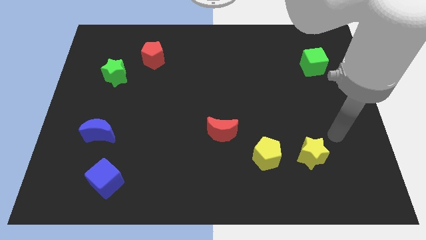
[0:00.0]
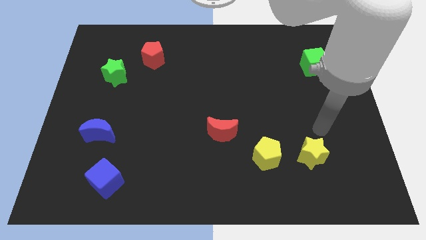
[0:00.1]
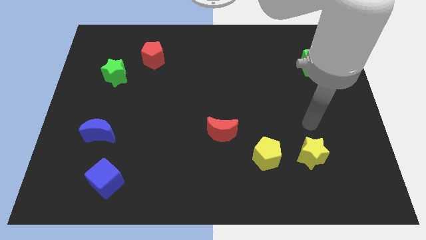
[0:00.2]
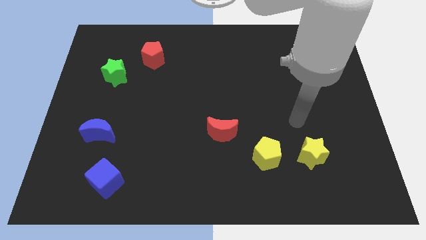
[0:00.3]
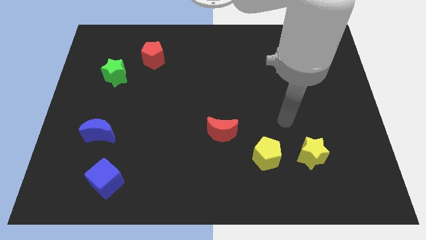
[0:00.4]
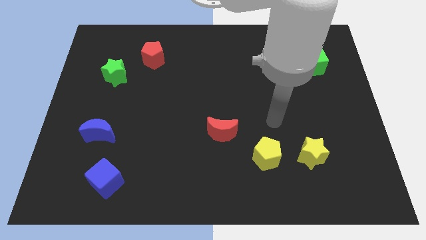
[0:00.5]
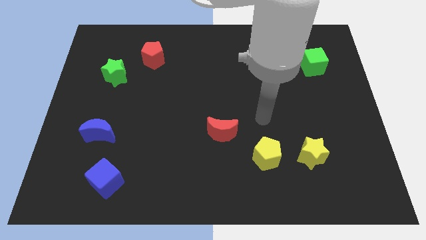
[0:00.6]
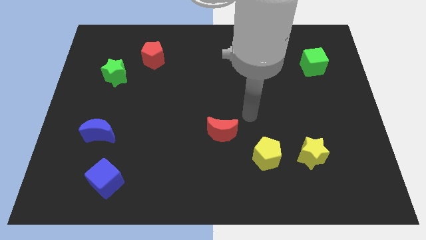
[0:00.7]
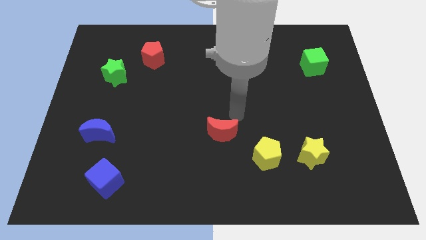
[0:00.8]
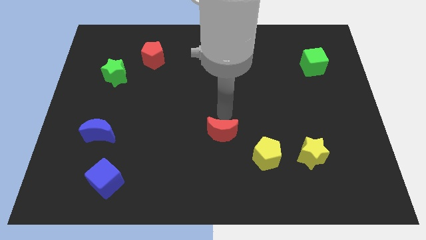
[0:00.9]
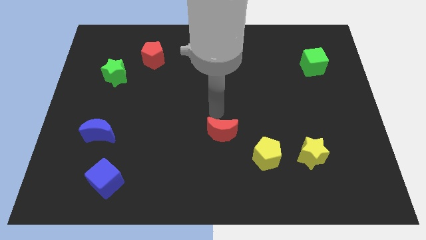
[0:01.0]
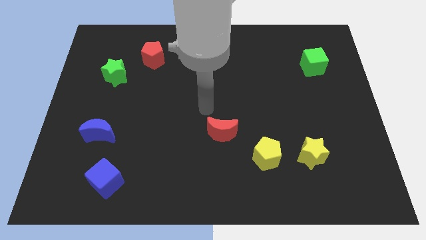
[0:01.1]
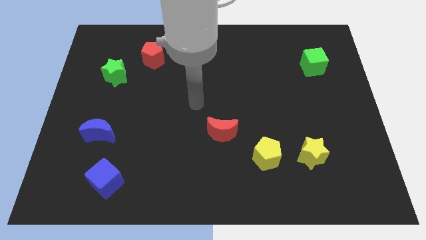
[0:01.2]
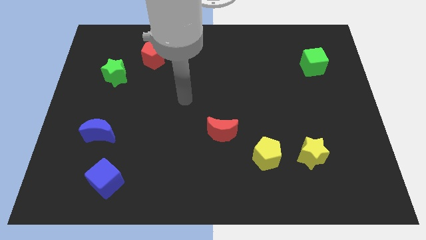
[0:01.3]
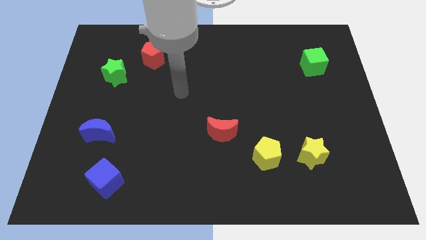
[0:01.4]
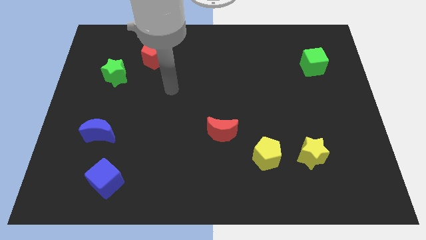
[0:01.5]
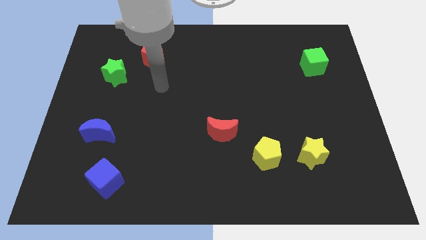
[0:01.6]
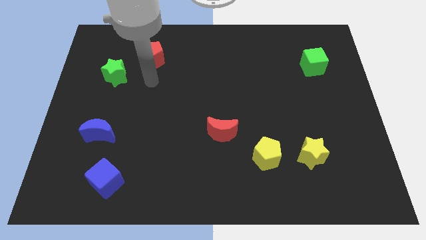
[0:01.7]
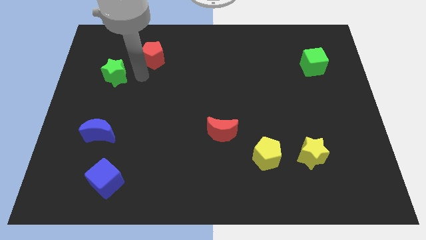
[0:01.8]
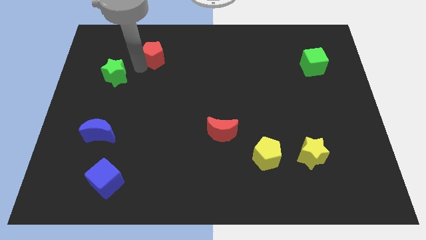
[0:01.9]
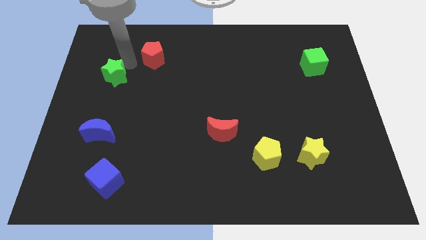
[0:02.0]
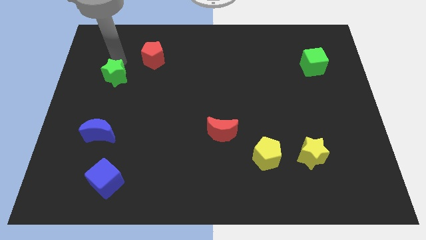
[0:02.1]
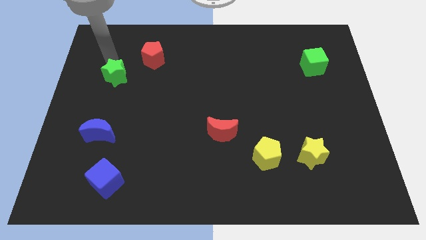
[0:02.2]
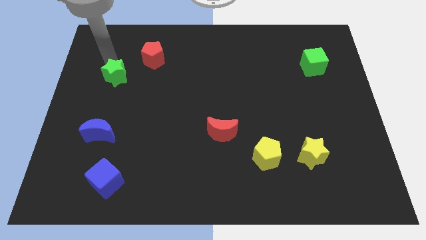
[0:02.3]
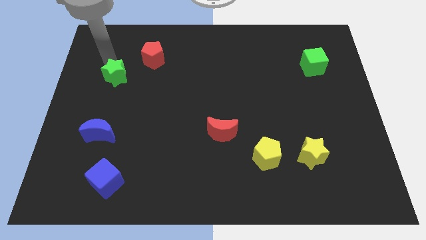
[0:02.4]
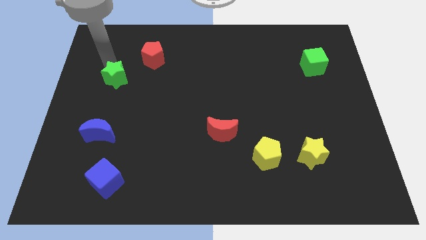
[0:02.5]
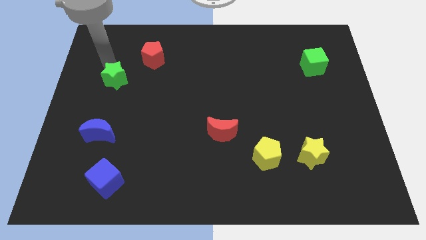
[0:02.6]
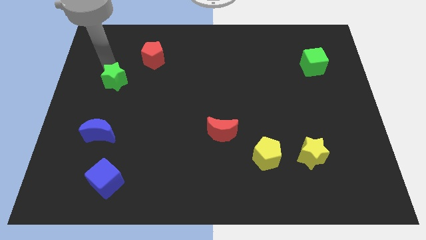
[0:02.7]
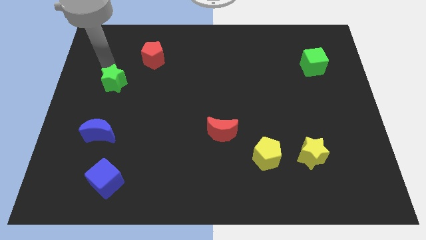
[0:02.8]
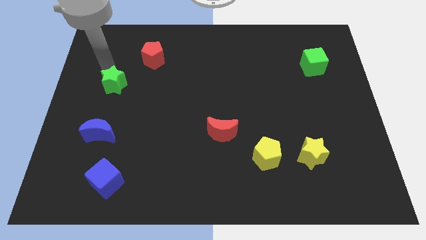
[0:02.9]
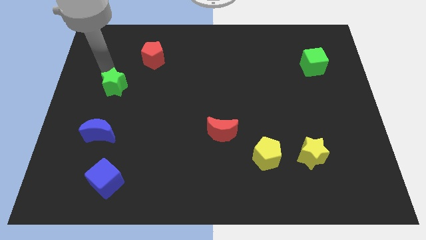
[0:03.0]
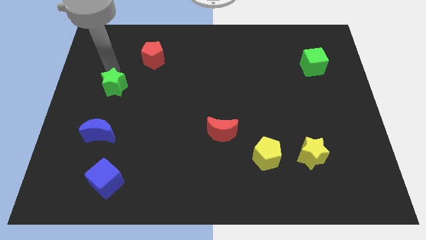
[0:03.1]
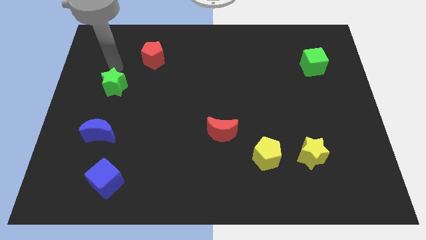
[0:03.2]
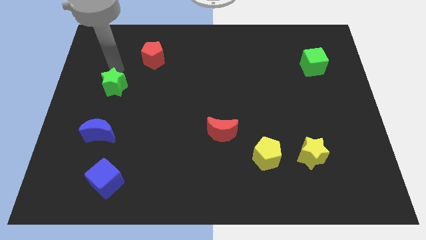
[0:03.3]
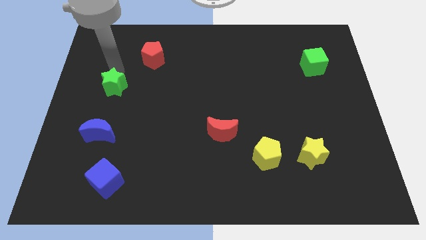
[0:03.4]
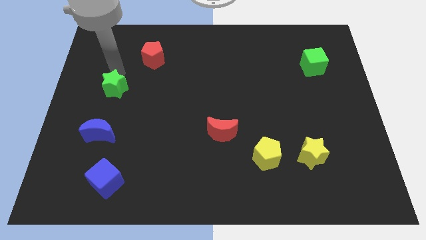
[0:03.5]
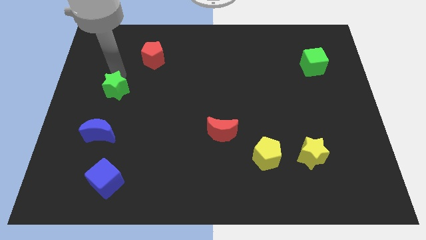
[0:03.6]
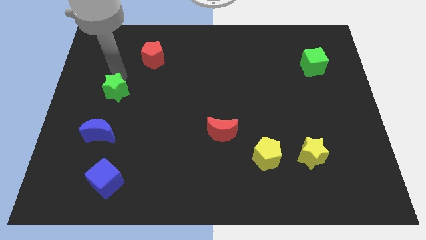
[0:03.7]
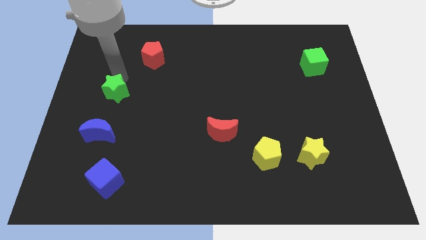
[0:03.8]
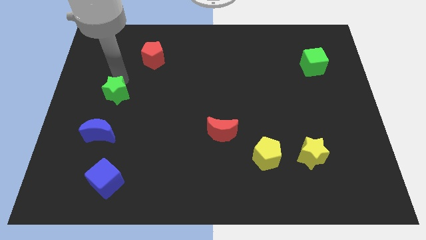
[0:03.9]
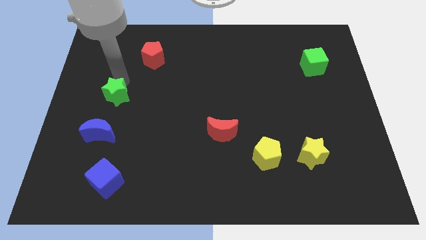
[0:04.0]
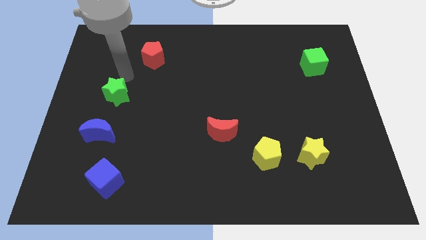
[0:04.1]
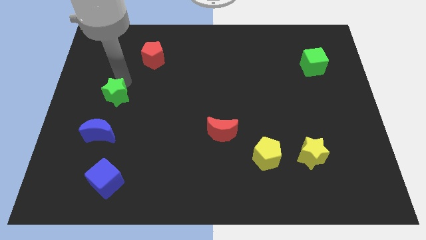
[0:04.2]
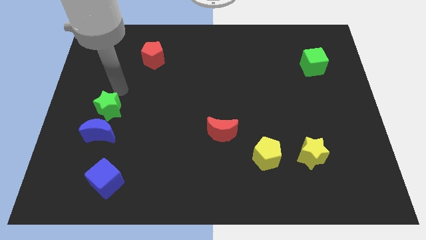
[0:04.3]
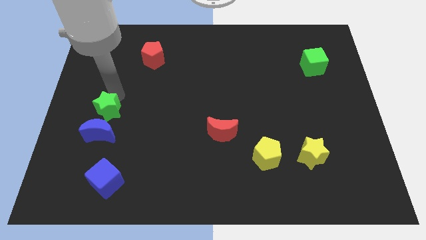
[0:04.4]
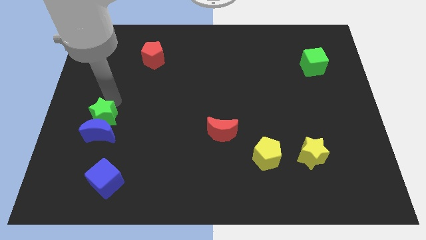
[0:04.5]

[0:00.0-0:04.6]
move the green star next to the blue moon

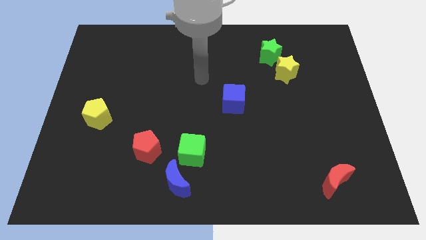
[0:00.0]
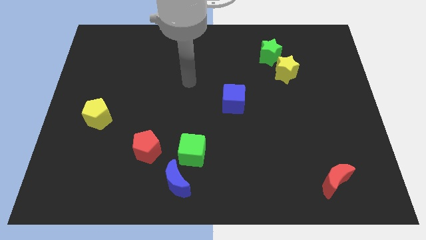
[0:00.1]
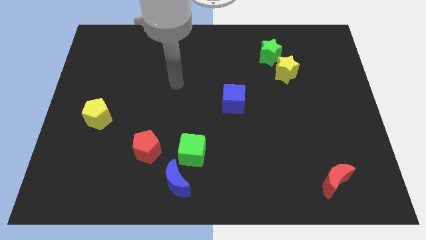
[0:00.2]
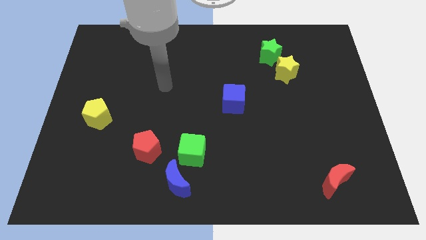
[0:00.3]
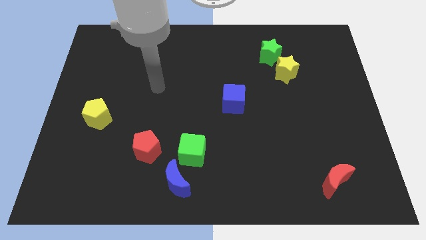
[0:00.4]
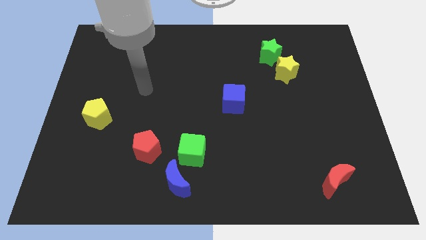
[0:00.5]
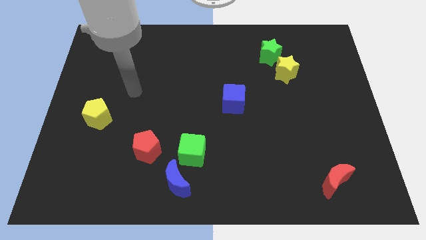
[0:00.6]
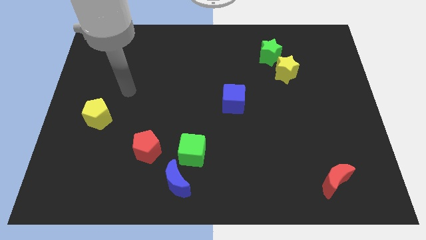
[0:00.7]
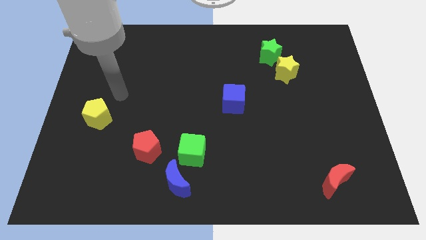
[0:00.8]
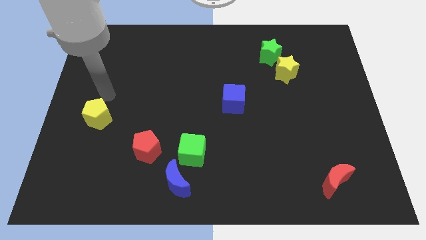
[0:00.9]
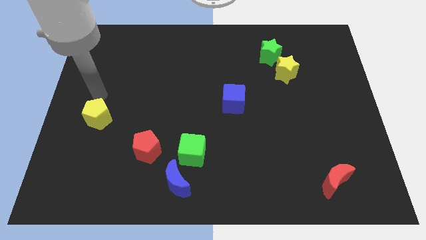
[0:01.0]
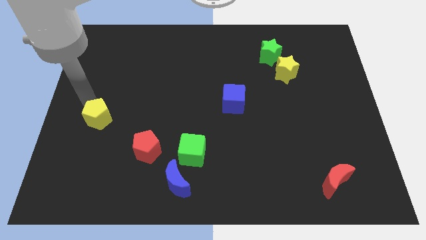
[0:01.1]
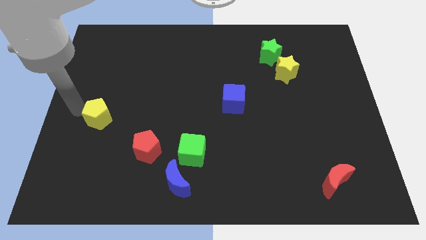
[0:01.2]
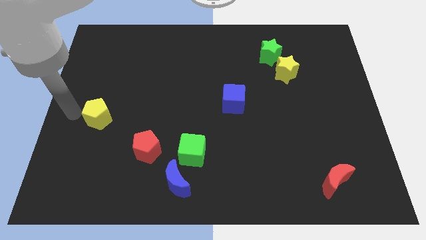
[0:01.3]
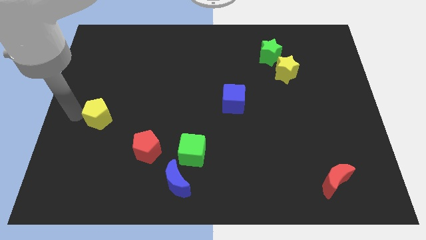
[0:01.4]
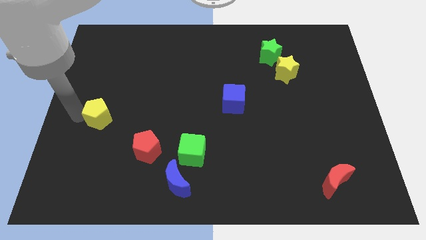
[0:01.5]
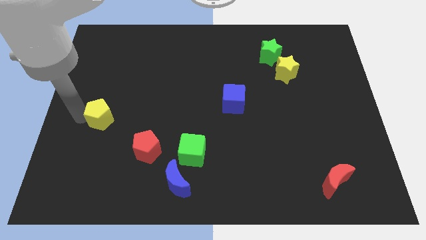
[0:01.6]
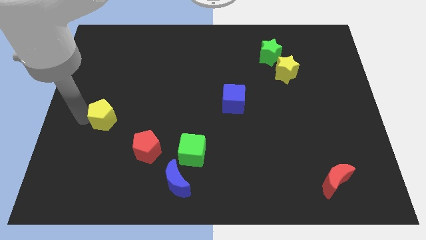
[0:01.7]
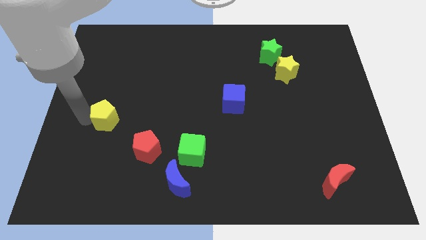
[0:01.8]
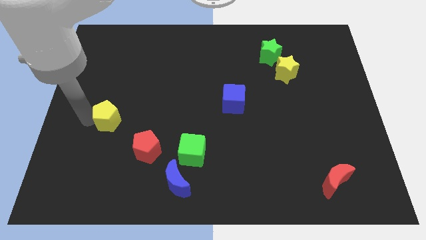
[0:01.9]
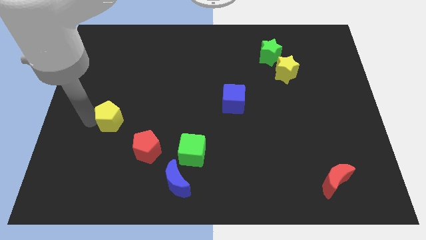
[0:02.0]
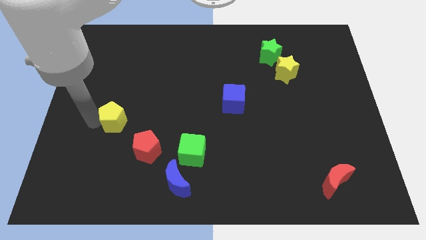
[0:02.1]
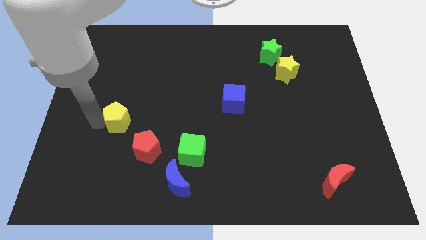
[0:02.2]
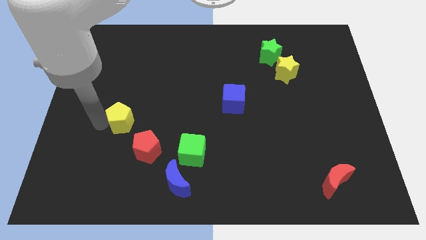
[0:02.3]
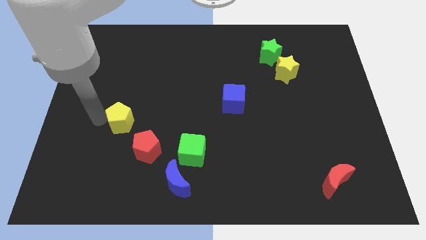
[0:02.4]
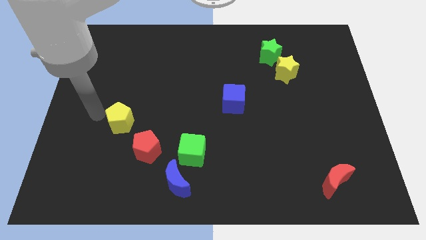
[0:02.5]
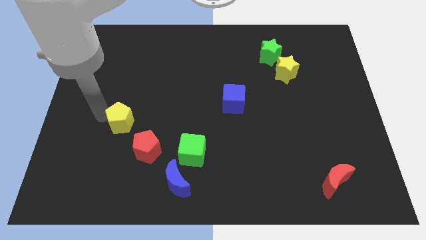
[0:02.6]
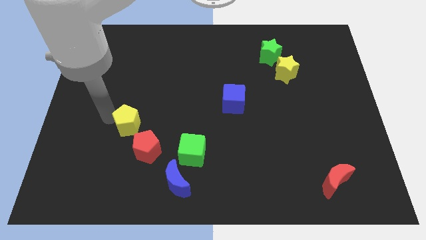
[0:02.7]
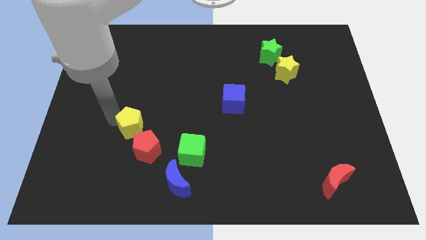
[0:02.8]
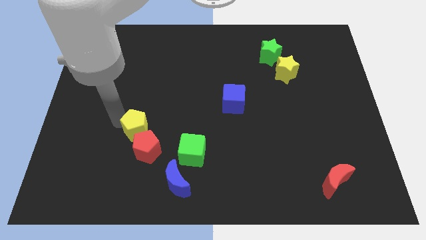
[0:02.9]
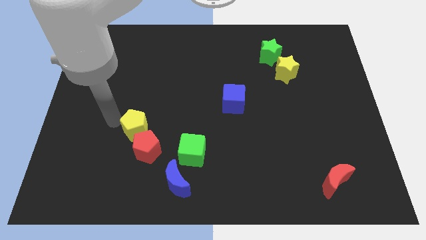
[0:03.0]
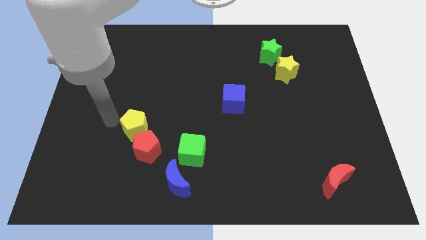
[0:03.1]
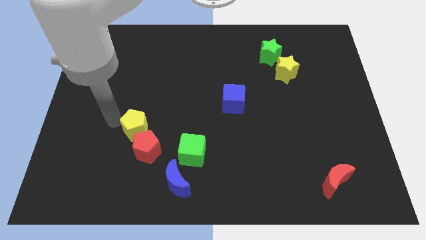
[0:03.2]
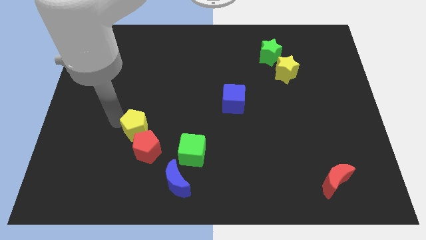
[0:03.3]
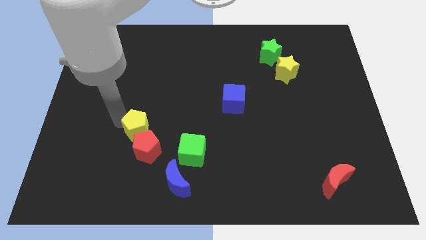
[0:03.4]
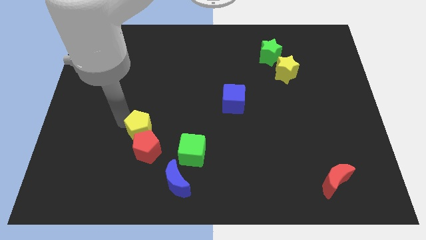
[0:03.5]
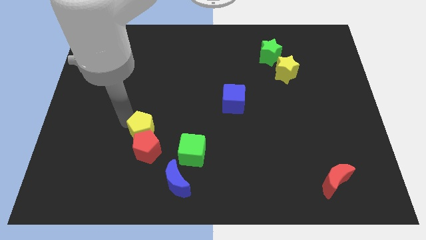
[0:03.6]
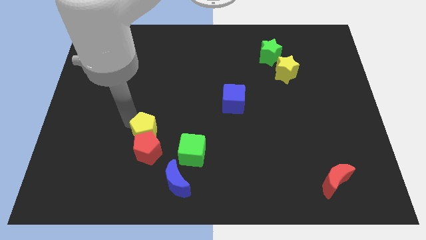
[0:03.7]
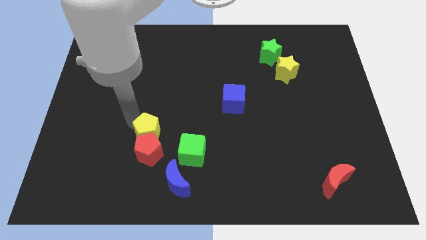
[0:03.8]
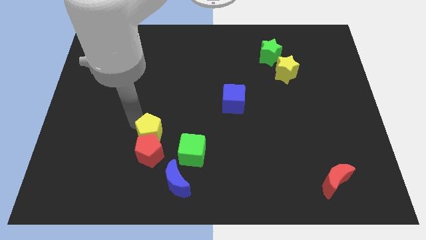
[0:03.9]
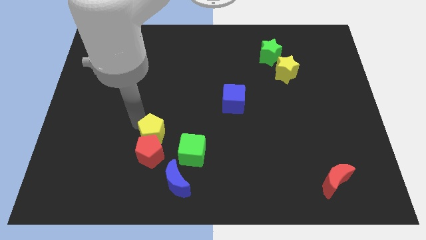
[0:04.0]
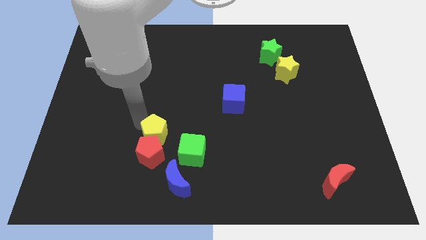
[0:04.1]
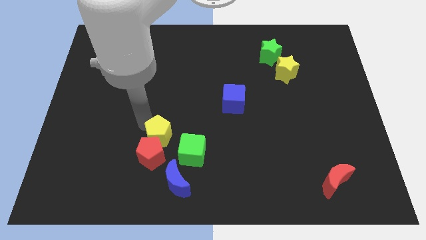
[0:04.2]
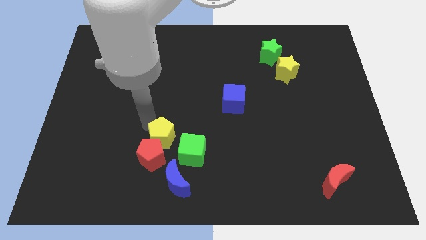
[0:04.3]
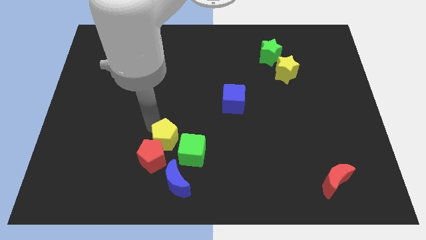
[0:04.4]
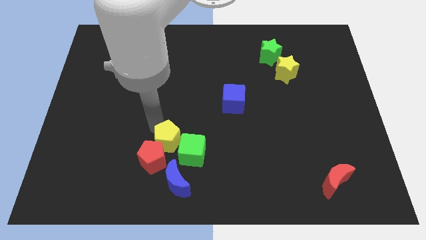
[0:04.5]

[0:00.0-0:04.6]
slide the yellow pentagon next to the green cube
